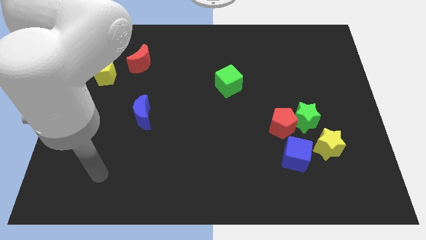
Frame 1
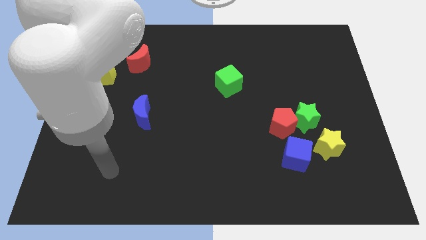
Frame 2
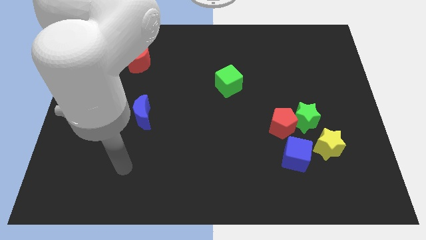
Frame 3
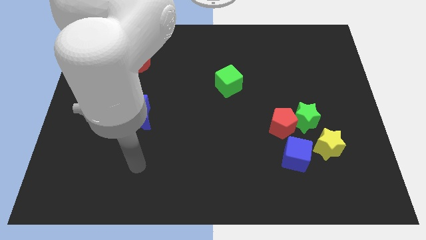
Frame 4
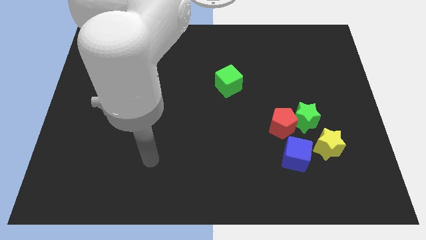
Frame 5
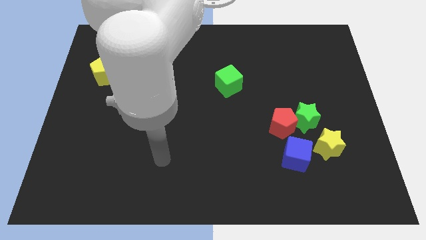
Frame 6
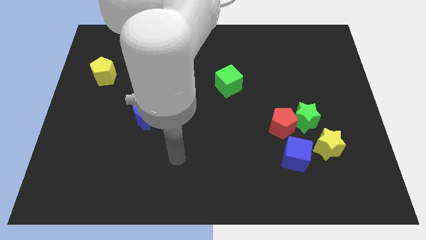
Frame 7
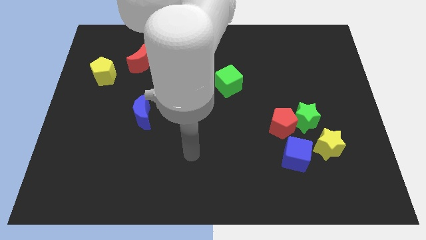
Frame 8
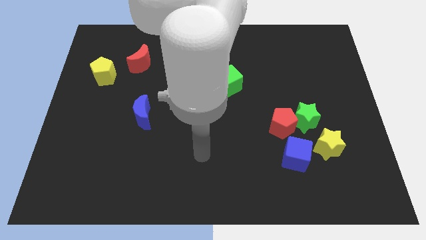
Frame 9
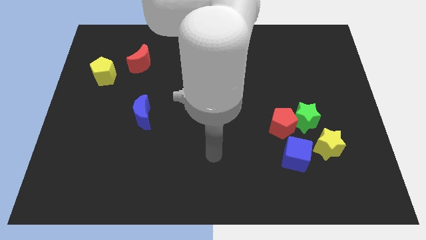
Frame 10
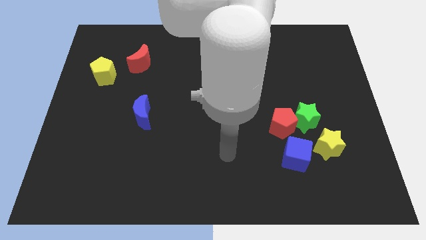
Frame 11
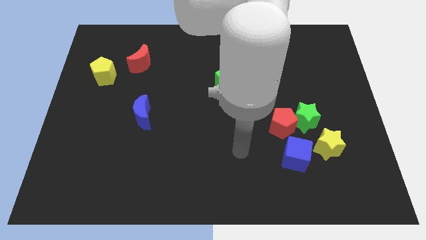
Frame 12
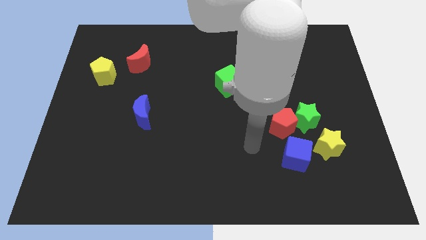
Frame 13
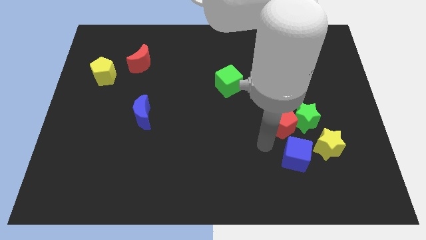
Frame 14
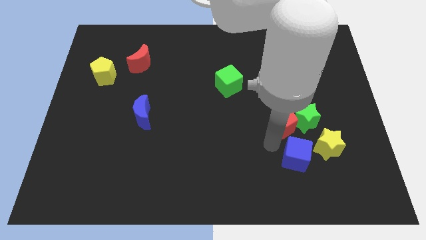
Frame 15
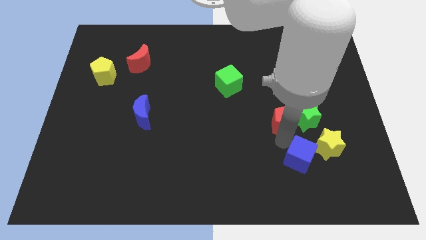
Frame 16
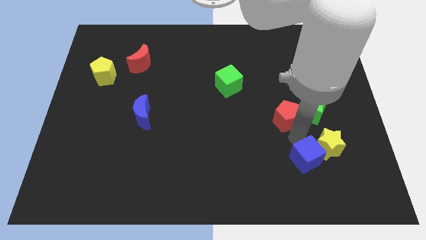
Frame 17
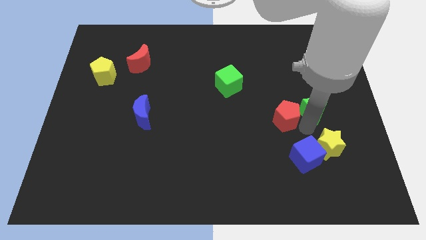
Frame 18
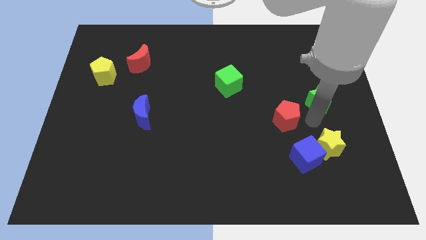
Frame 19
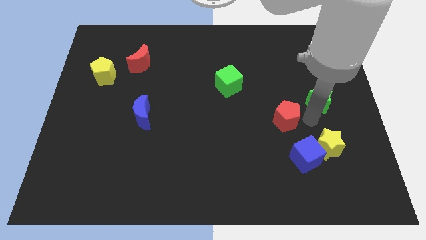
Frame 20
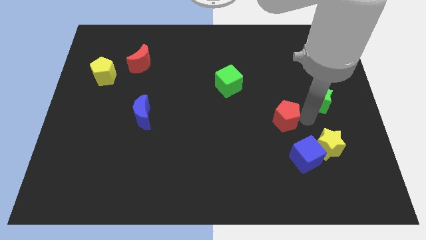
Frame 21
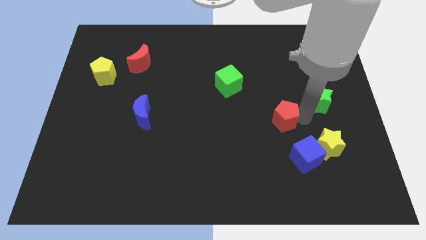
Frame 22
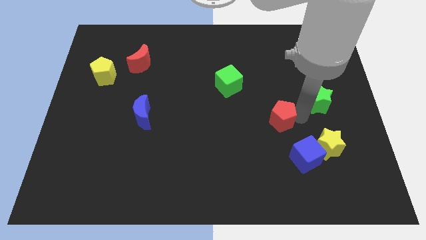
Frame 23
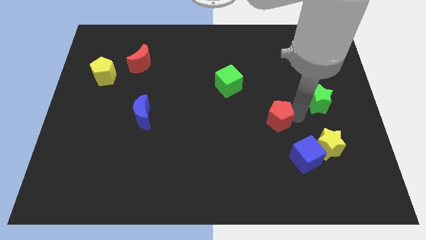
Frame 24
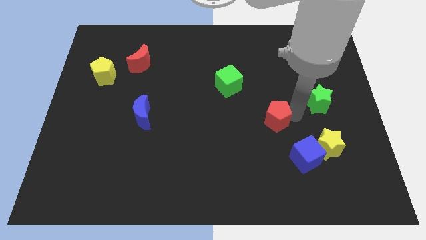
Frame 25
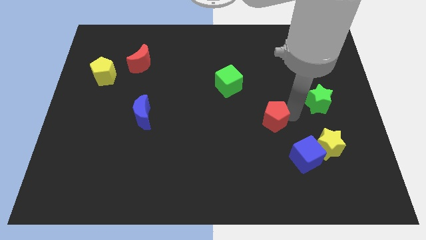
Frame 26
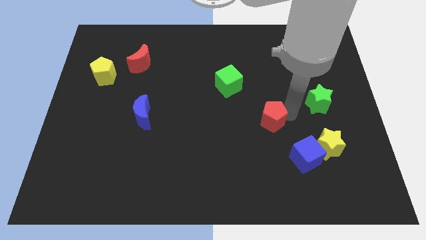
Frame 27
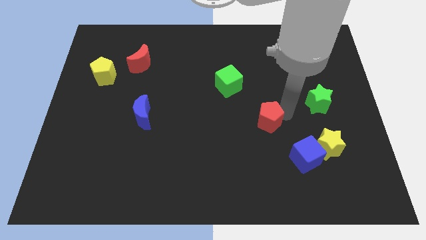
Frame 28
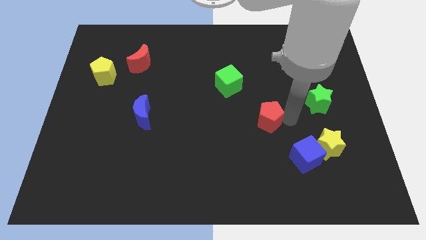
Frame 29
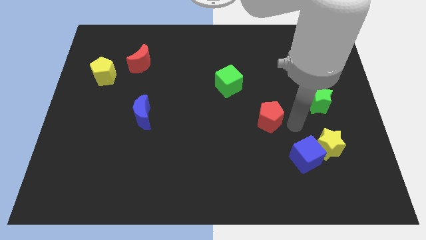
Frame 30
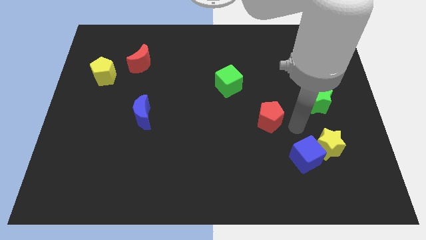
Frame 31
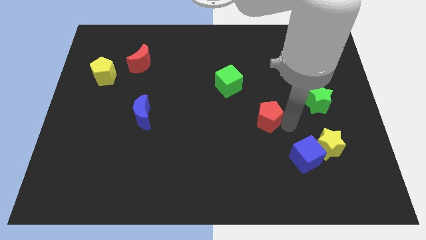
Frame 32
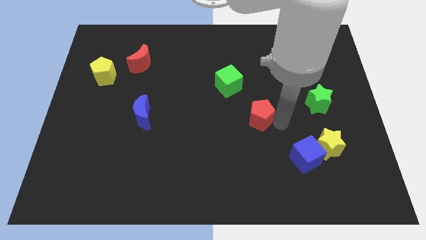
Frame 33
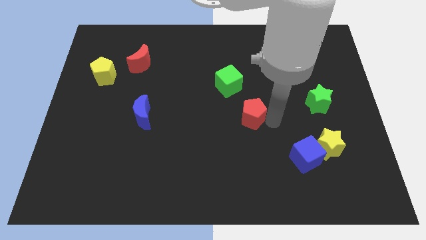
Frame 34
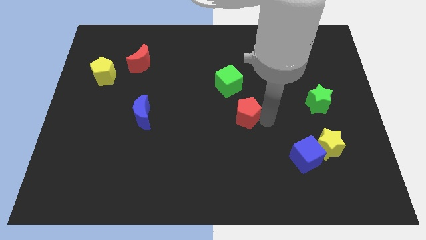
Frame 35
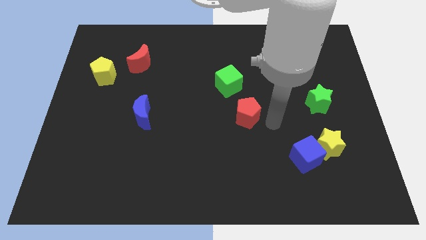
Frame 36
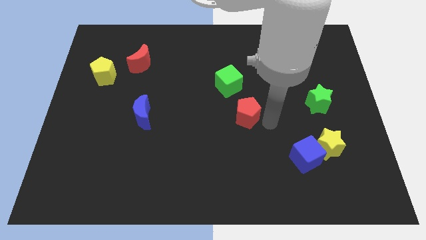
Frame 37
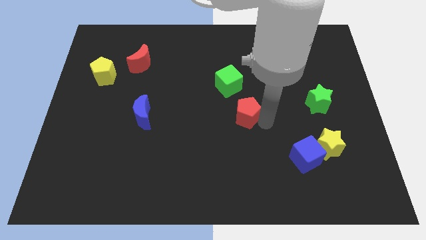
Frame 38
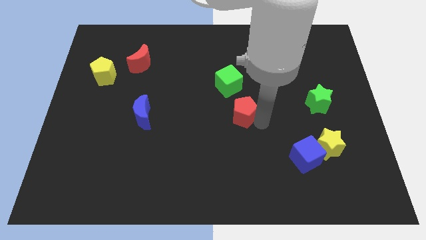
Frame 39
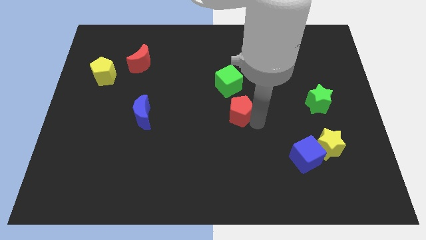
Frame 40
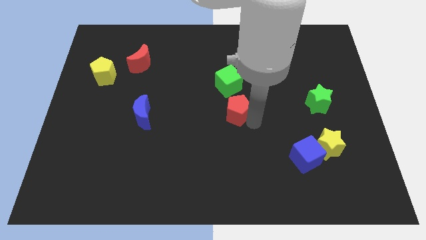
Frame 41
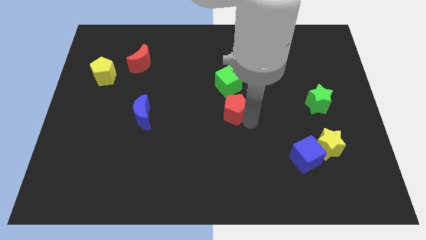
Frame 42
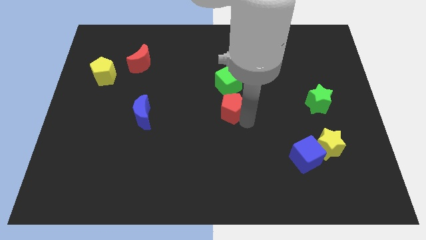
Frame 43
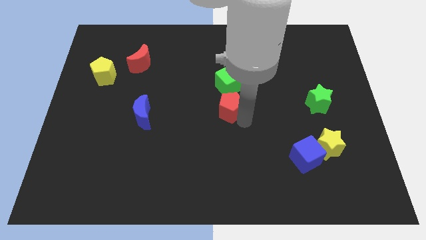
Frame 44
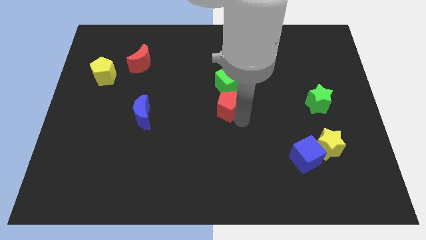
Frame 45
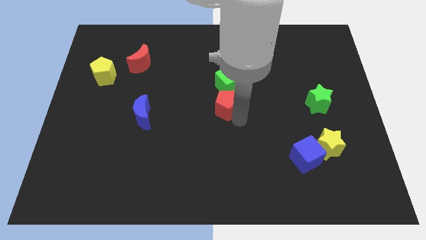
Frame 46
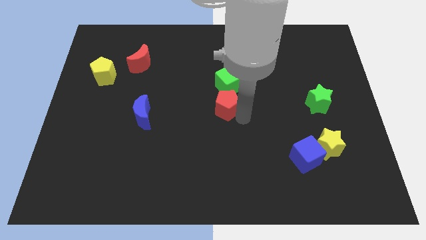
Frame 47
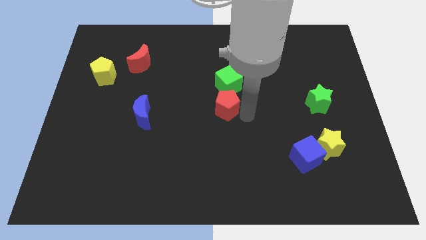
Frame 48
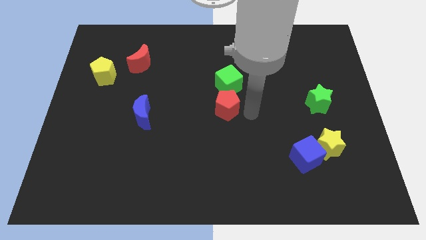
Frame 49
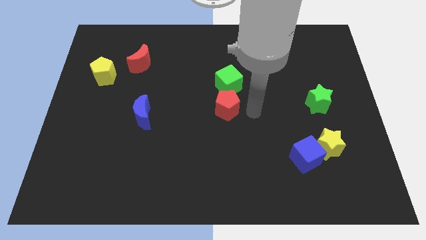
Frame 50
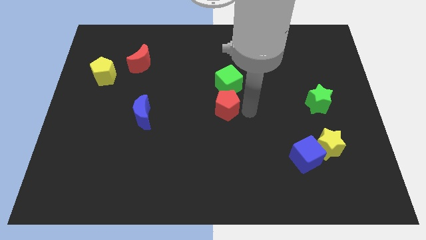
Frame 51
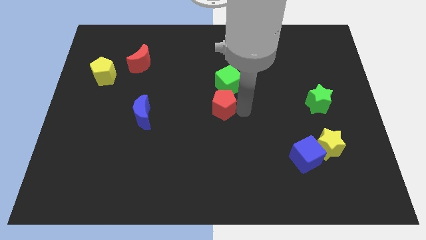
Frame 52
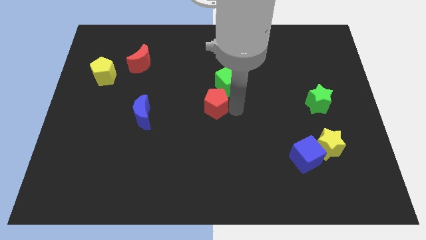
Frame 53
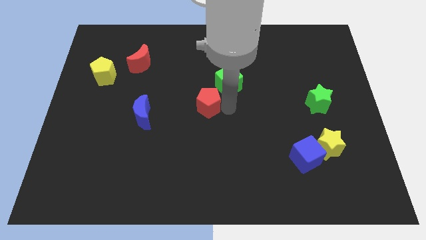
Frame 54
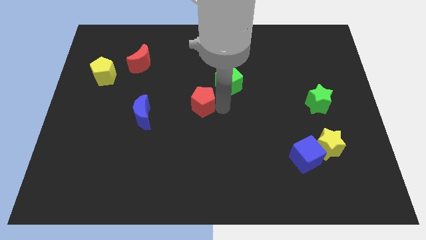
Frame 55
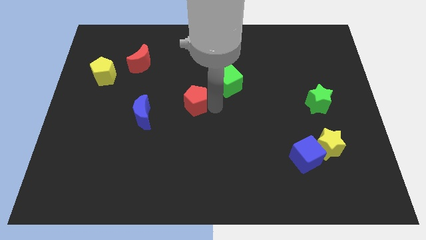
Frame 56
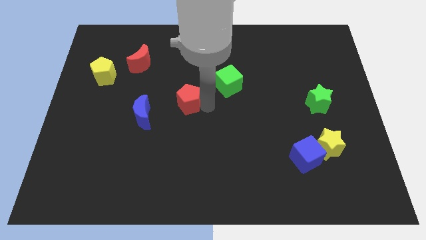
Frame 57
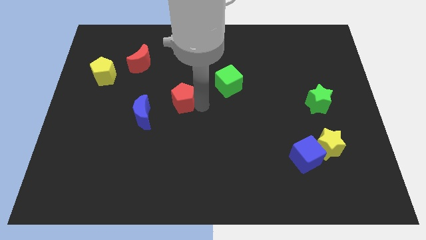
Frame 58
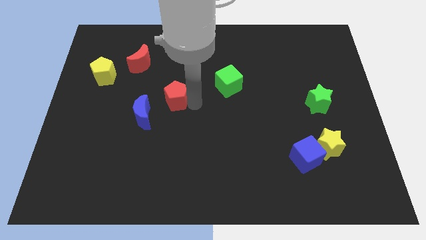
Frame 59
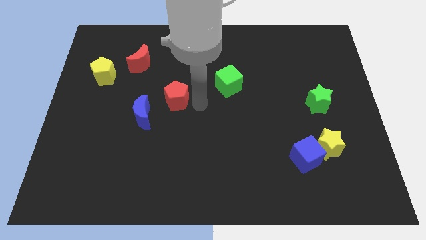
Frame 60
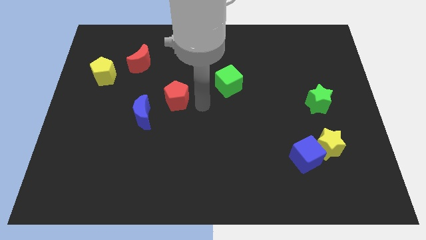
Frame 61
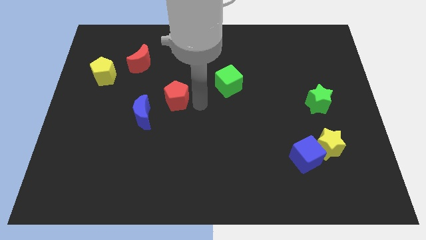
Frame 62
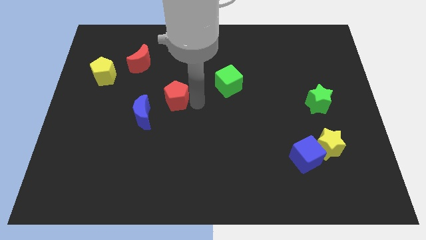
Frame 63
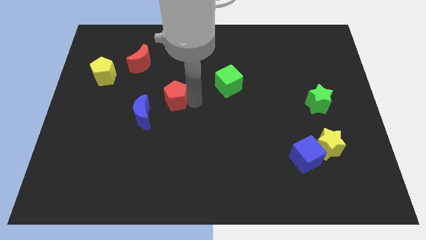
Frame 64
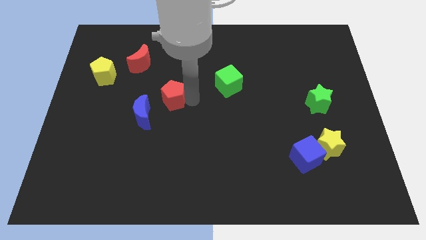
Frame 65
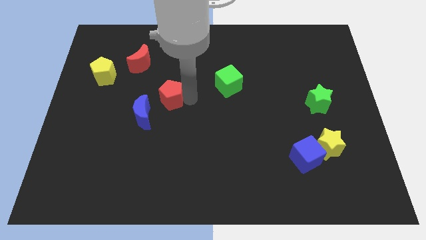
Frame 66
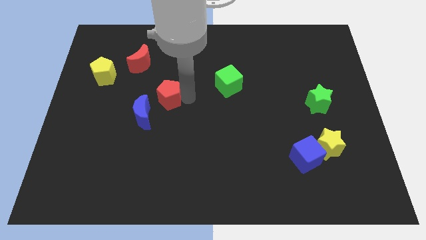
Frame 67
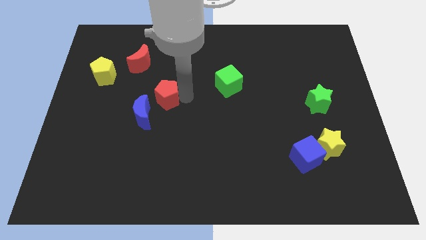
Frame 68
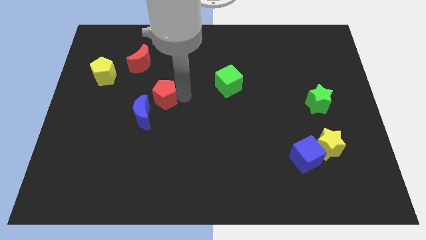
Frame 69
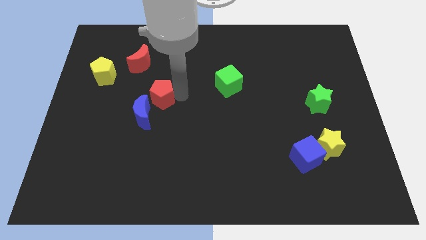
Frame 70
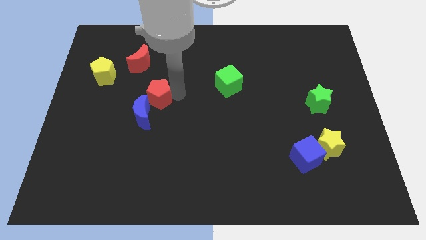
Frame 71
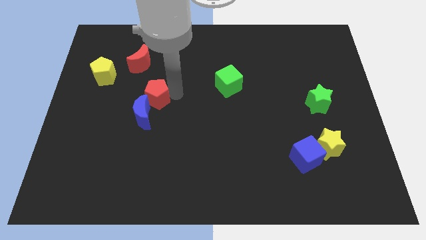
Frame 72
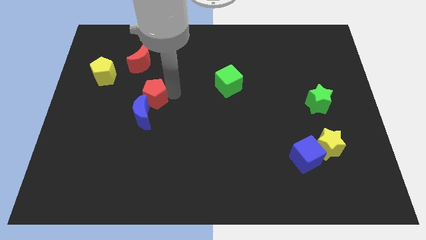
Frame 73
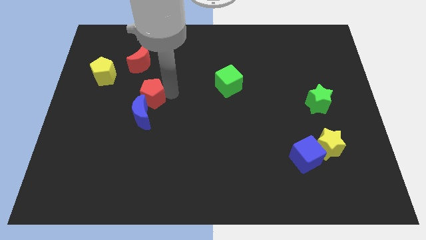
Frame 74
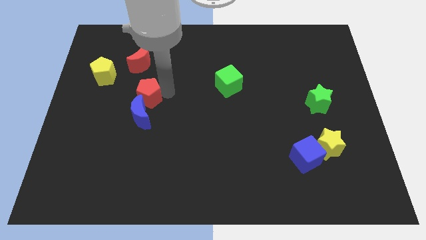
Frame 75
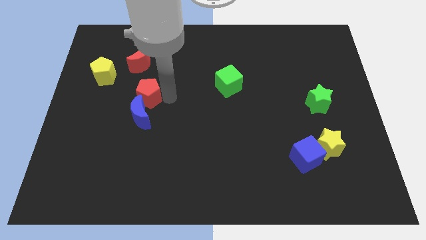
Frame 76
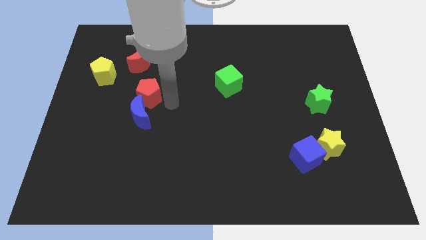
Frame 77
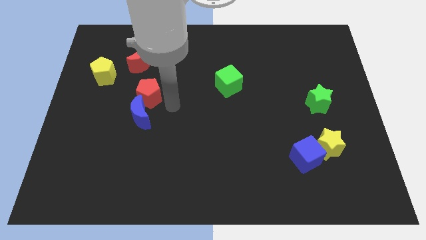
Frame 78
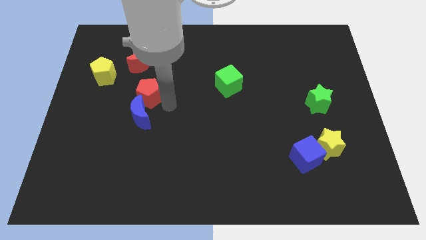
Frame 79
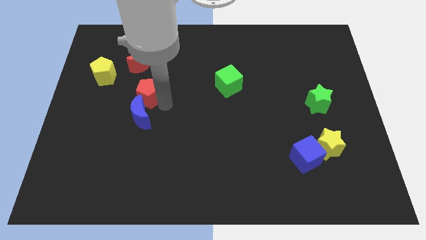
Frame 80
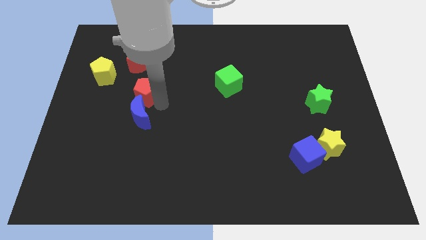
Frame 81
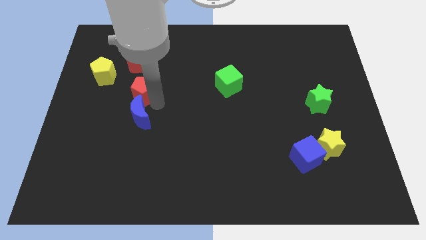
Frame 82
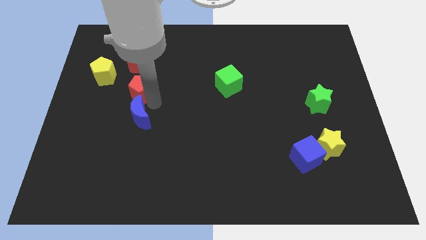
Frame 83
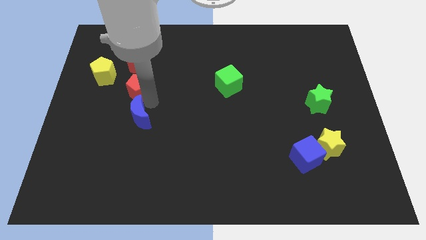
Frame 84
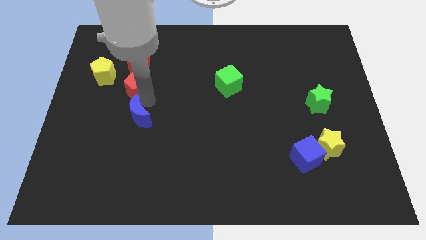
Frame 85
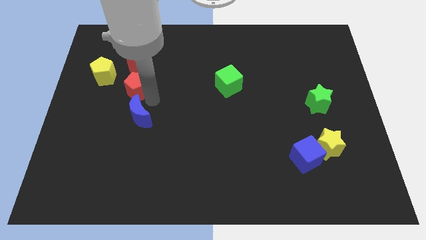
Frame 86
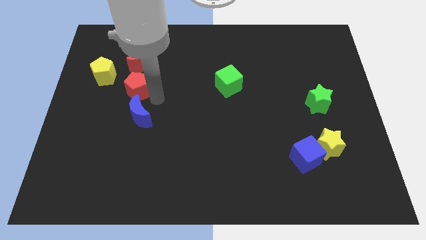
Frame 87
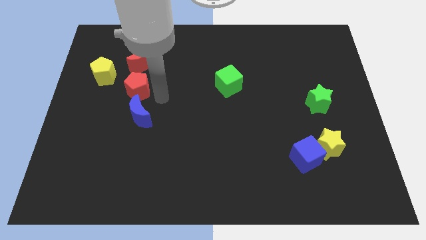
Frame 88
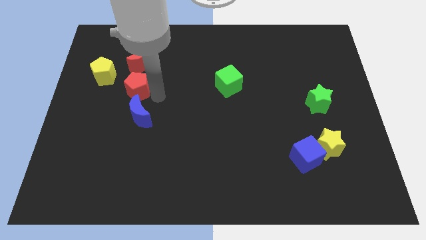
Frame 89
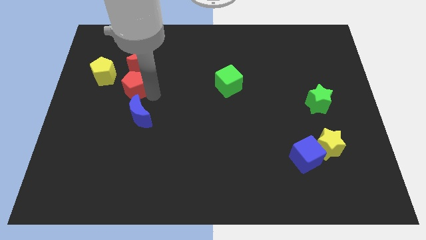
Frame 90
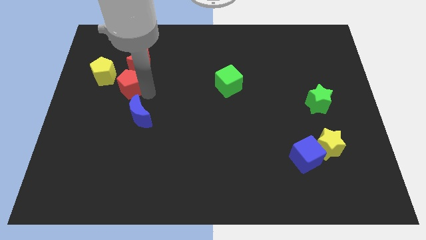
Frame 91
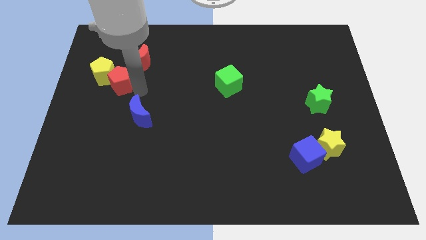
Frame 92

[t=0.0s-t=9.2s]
slide the red pentagon towards the yellow pentagon
